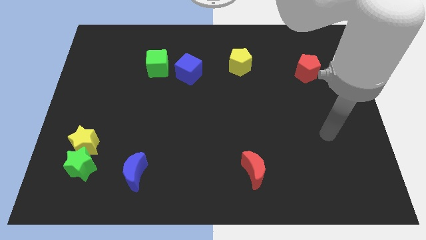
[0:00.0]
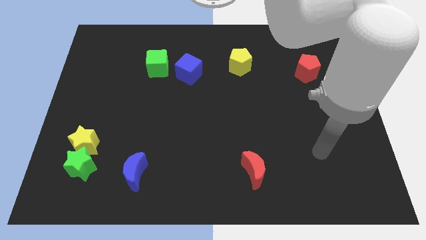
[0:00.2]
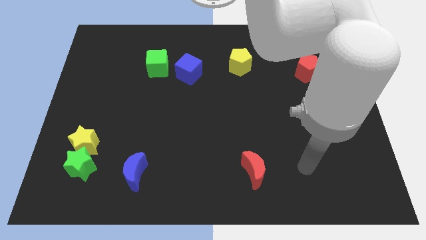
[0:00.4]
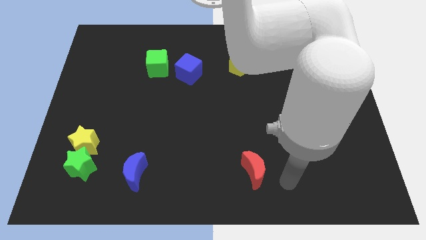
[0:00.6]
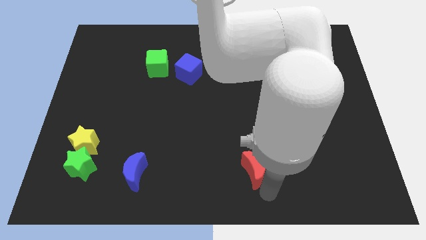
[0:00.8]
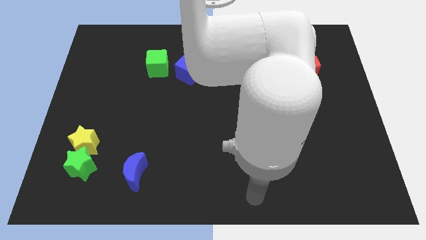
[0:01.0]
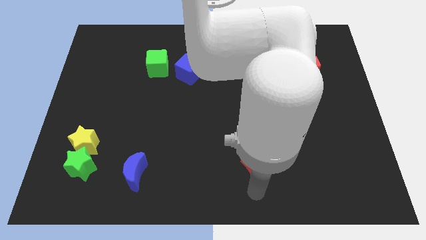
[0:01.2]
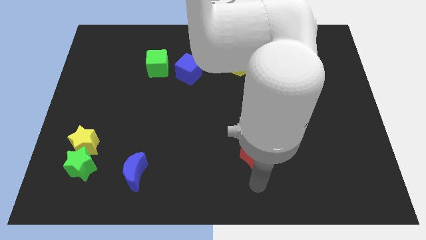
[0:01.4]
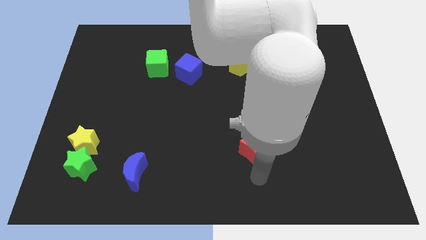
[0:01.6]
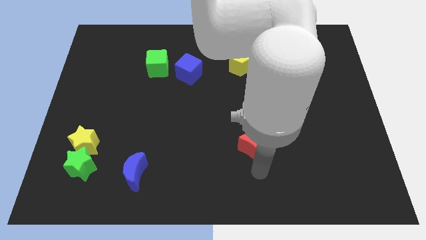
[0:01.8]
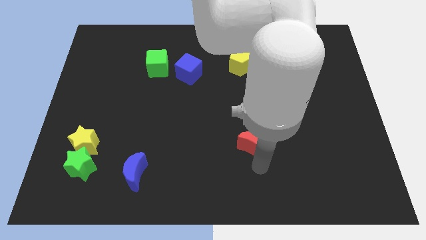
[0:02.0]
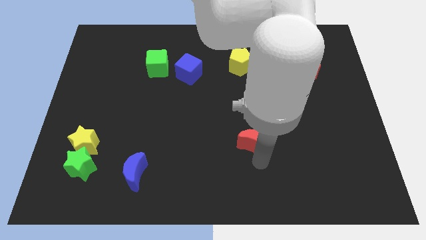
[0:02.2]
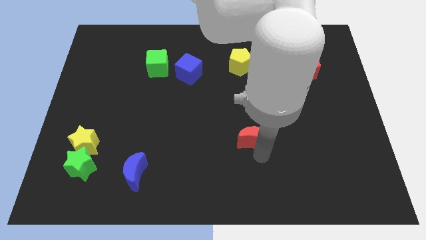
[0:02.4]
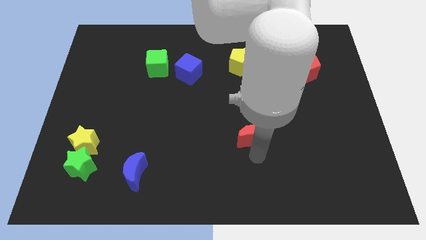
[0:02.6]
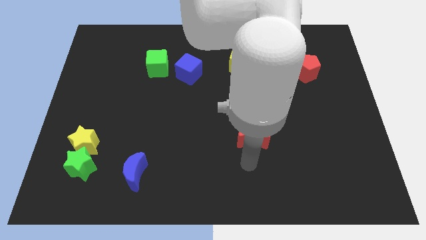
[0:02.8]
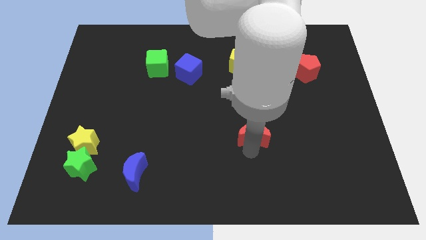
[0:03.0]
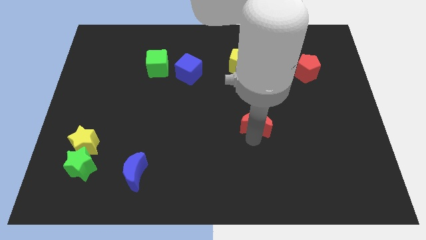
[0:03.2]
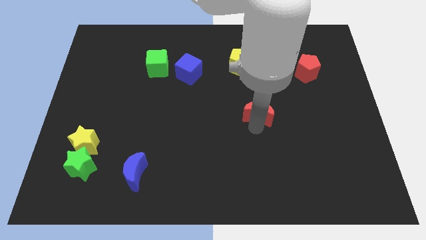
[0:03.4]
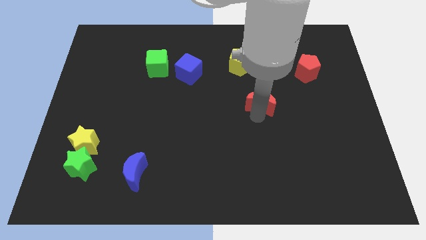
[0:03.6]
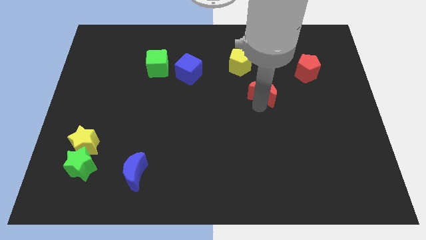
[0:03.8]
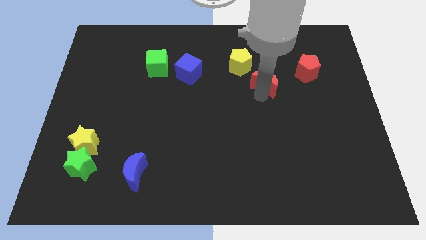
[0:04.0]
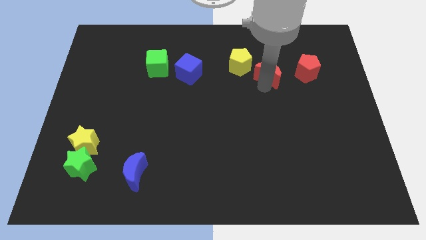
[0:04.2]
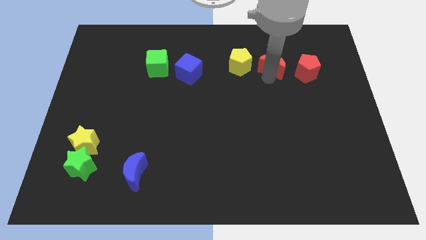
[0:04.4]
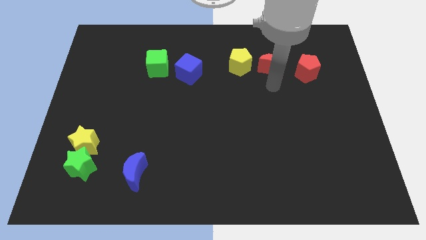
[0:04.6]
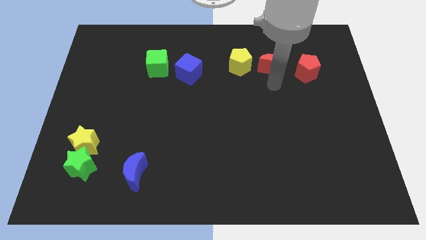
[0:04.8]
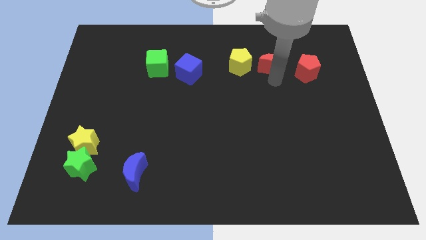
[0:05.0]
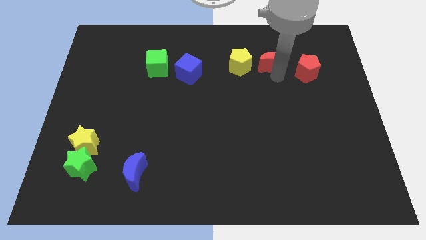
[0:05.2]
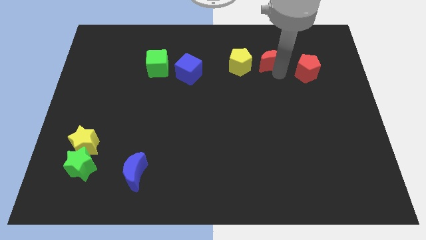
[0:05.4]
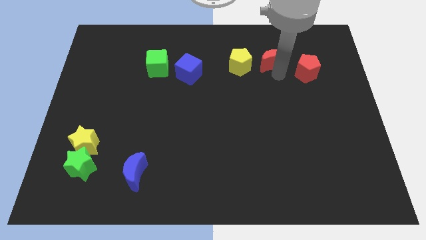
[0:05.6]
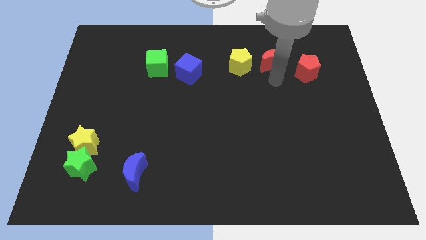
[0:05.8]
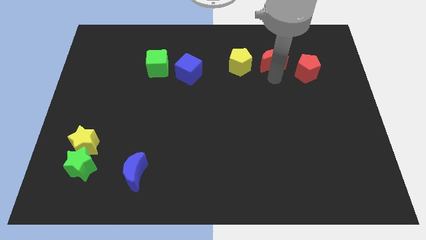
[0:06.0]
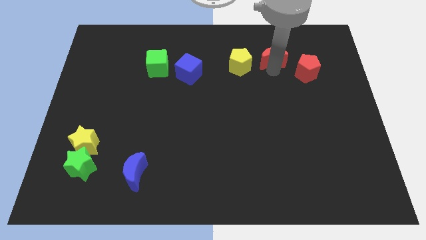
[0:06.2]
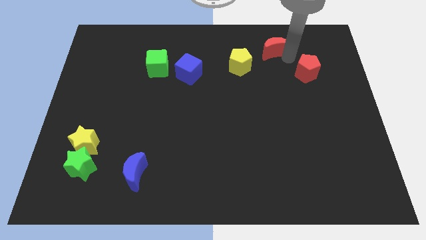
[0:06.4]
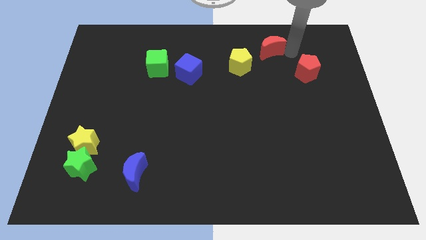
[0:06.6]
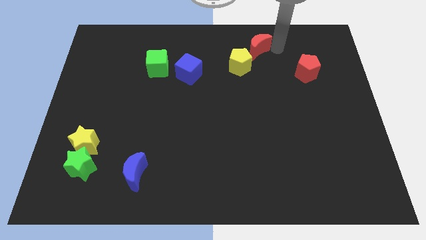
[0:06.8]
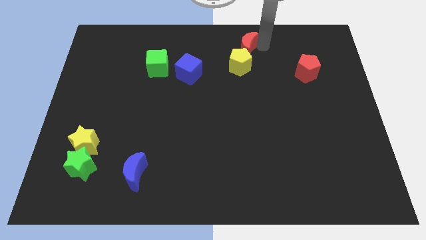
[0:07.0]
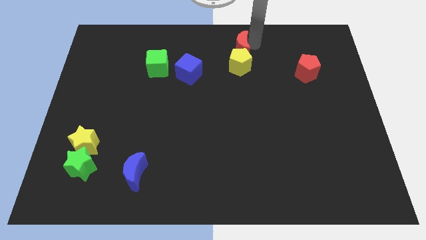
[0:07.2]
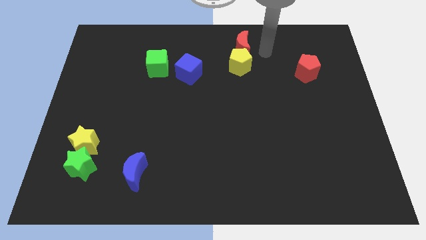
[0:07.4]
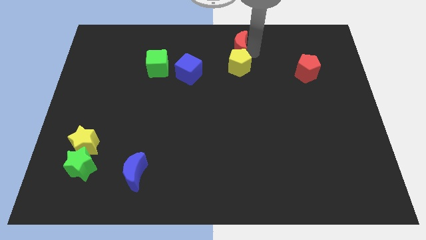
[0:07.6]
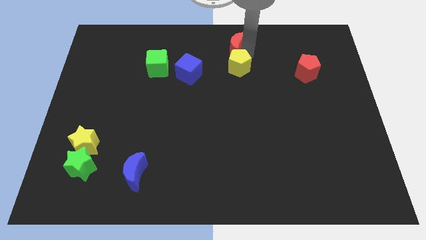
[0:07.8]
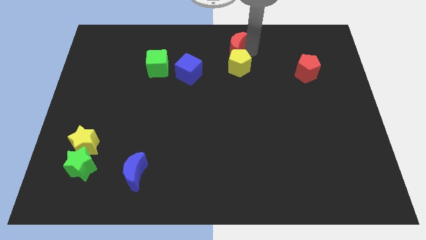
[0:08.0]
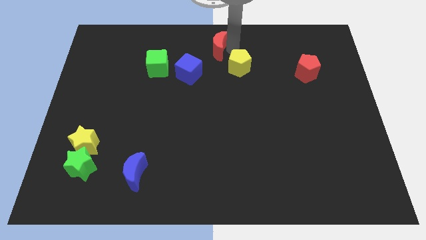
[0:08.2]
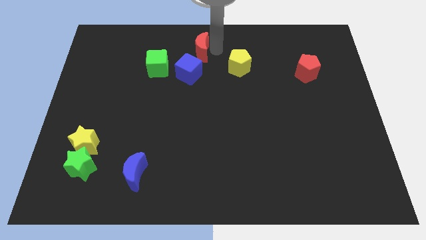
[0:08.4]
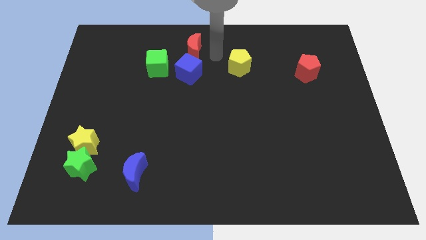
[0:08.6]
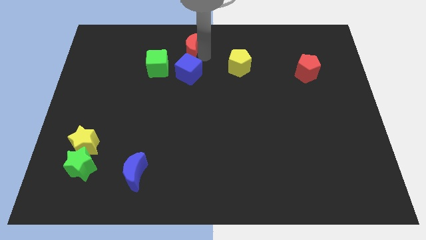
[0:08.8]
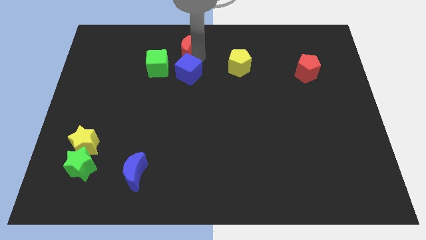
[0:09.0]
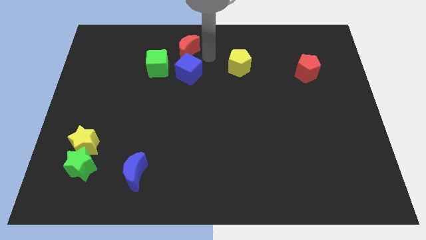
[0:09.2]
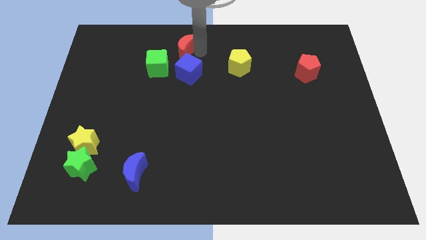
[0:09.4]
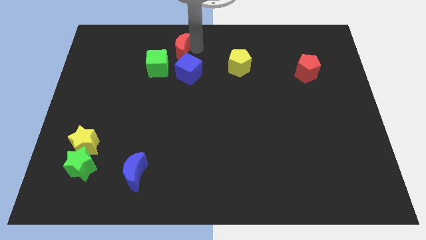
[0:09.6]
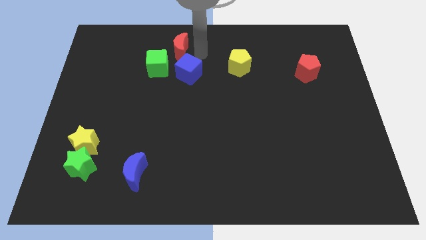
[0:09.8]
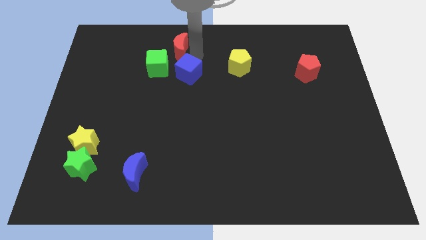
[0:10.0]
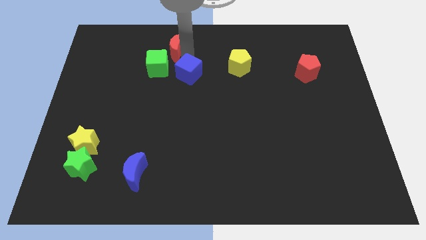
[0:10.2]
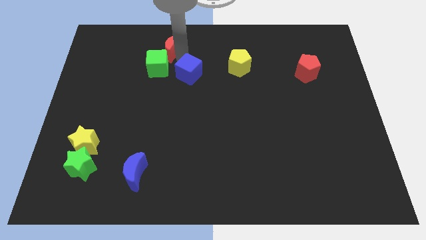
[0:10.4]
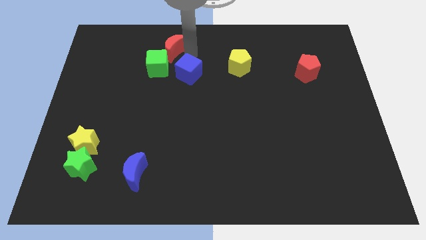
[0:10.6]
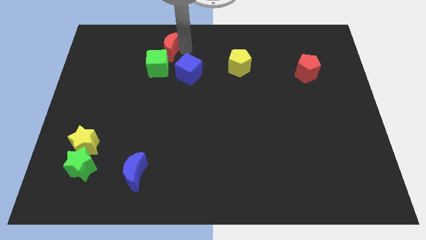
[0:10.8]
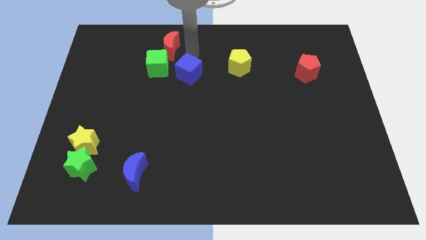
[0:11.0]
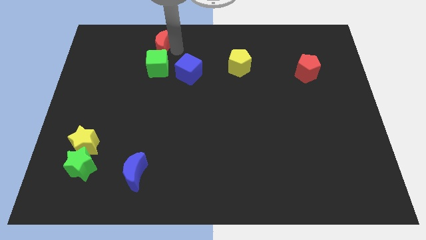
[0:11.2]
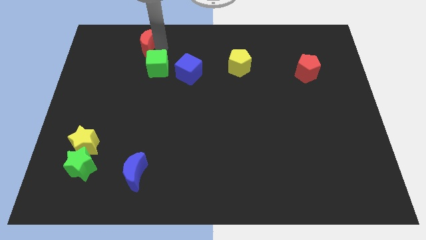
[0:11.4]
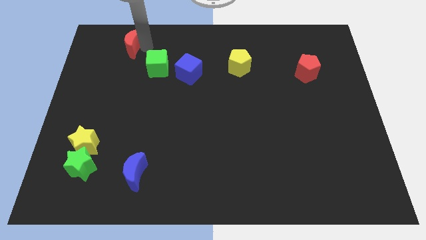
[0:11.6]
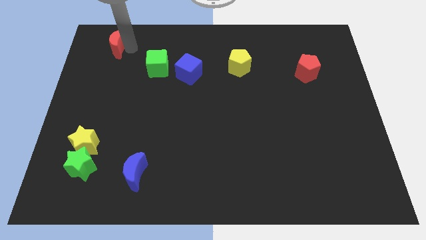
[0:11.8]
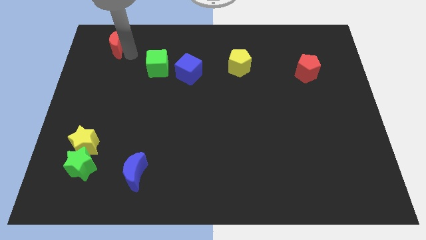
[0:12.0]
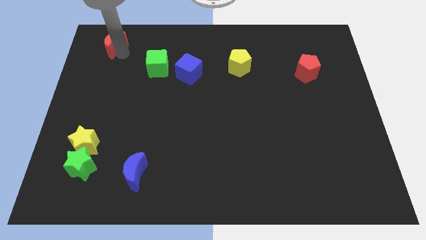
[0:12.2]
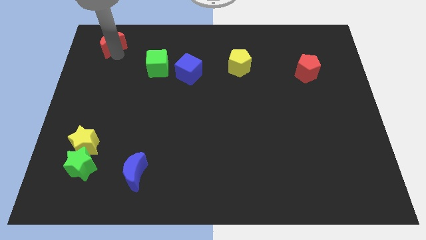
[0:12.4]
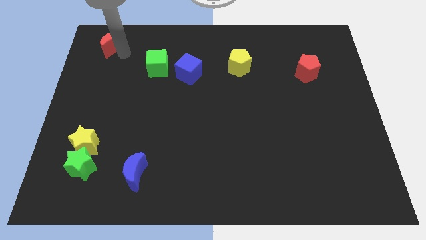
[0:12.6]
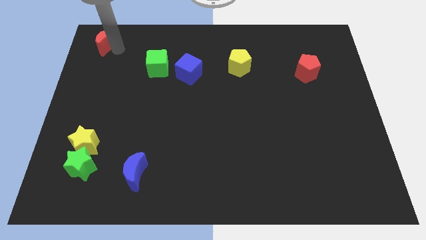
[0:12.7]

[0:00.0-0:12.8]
put the red moon to the upper left corner

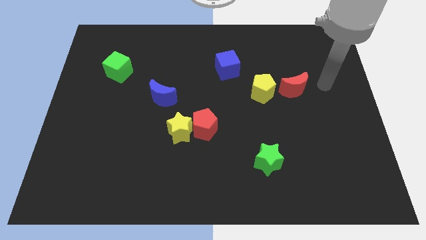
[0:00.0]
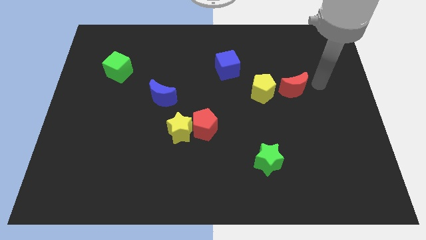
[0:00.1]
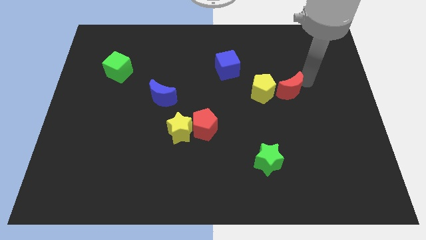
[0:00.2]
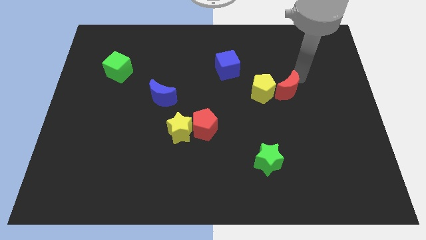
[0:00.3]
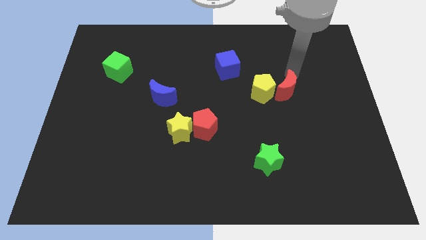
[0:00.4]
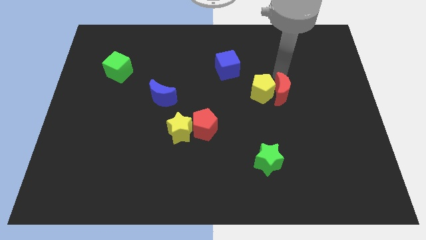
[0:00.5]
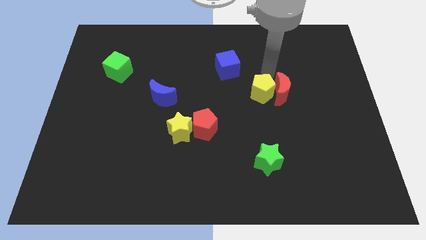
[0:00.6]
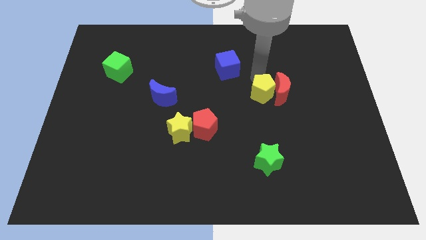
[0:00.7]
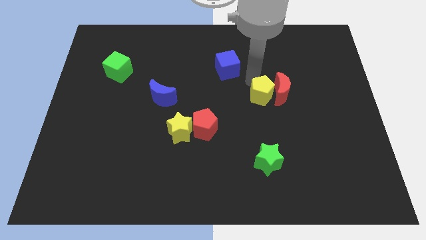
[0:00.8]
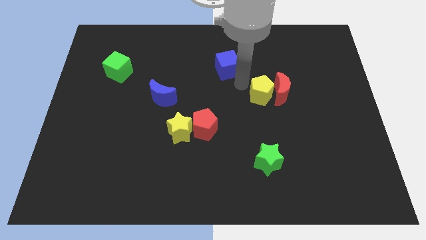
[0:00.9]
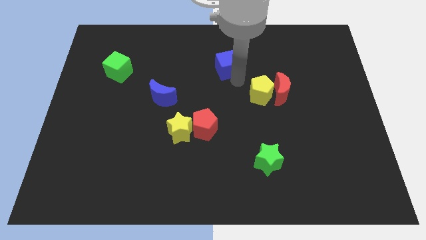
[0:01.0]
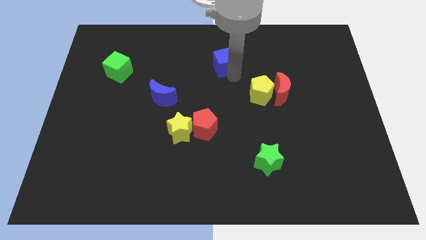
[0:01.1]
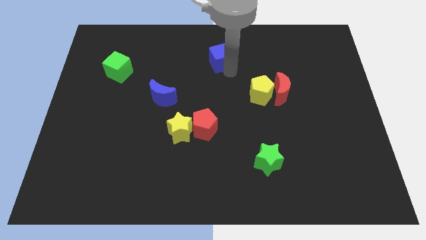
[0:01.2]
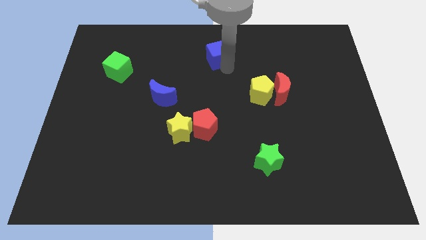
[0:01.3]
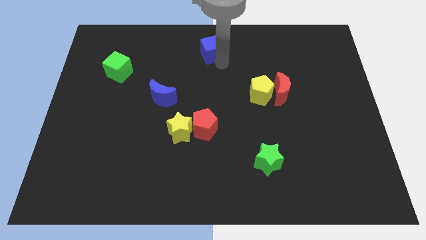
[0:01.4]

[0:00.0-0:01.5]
slide the blue cube to the top side
